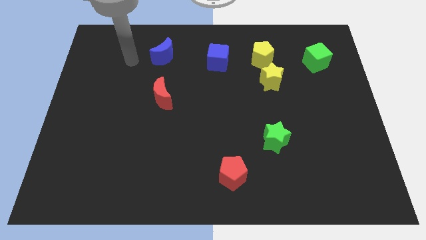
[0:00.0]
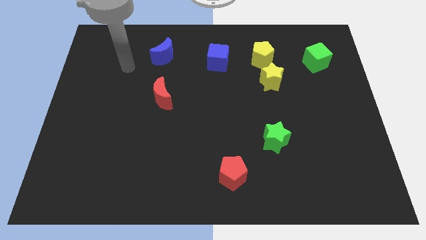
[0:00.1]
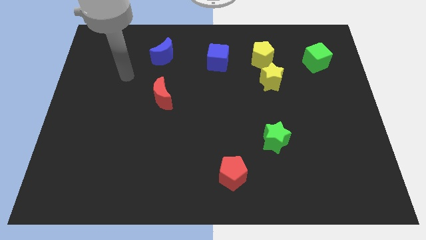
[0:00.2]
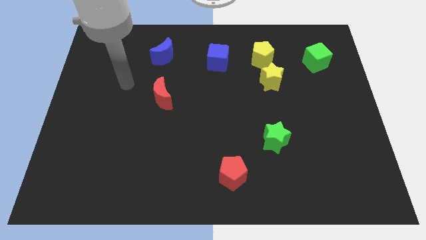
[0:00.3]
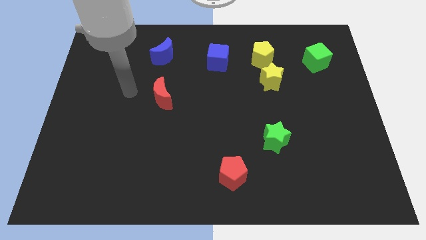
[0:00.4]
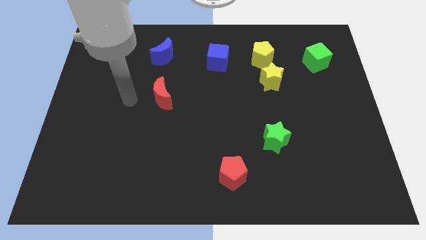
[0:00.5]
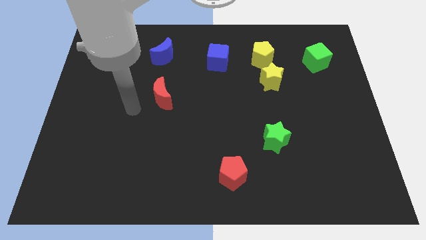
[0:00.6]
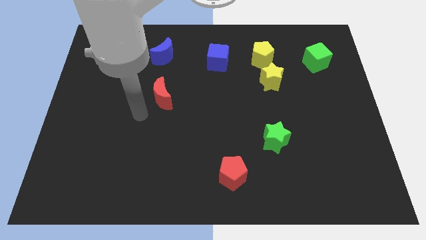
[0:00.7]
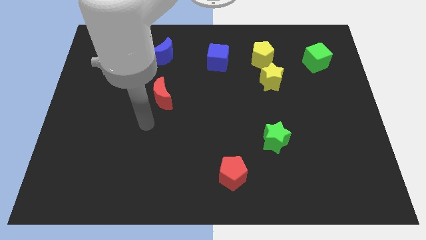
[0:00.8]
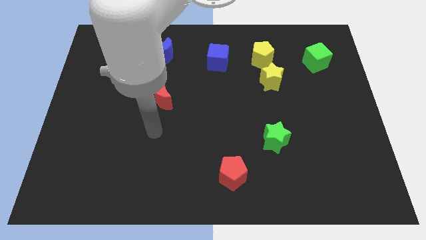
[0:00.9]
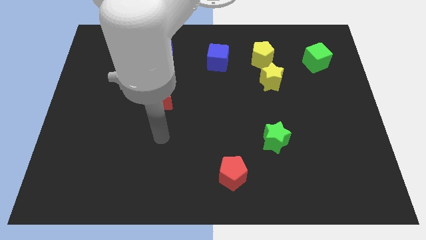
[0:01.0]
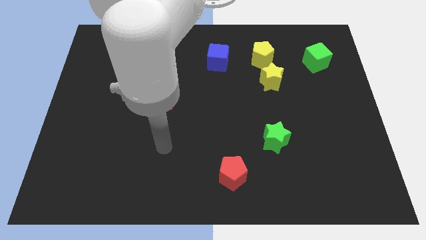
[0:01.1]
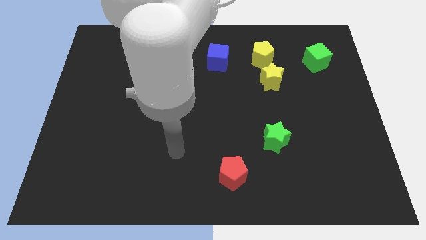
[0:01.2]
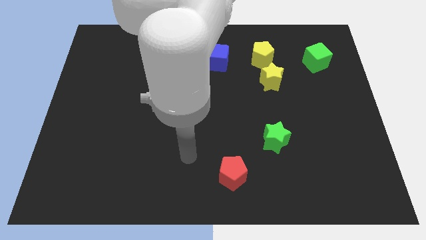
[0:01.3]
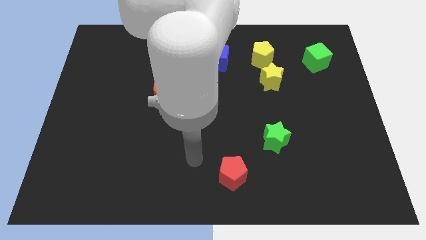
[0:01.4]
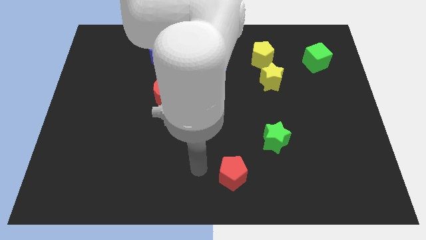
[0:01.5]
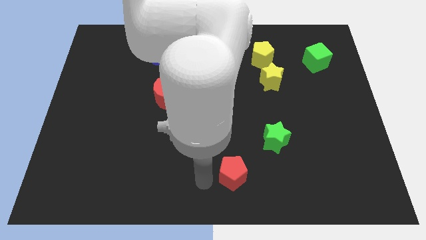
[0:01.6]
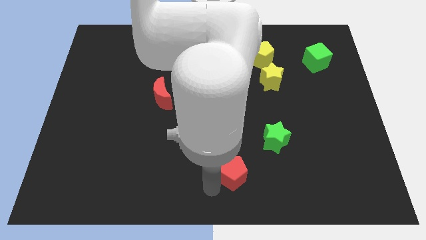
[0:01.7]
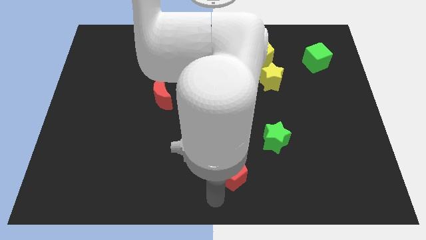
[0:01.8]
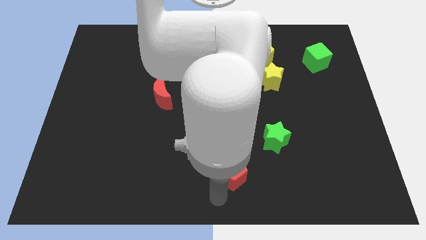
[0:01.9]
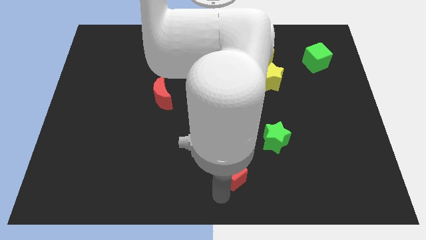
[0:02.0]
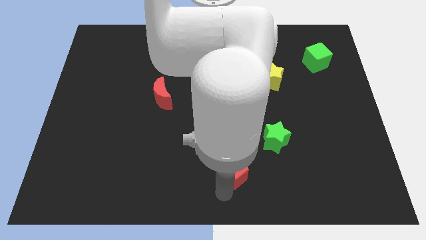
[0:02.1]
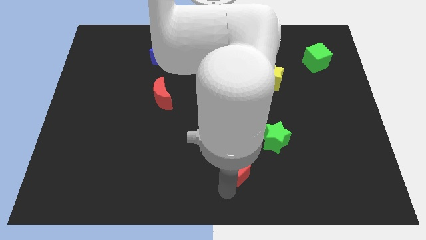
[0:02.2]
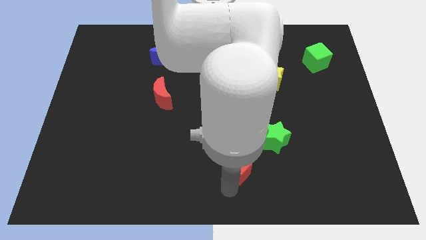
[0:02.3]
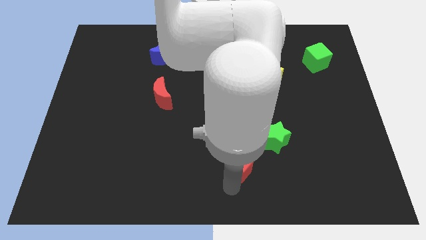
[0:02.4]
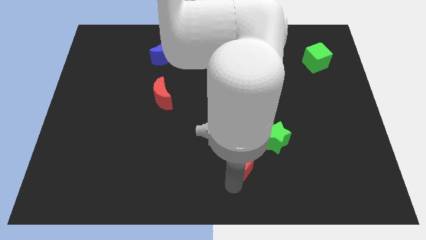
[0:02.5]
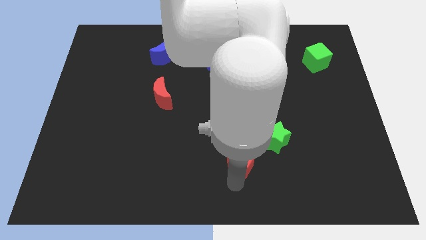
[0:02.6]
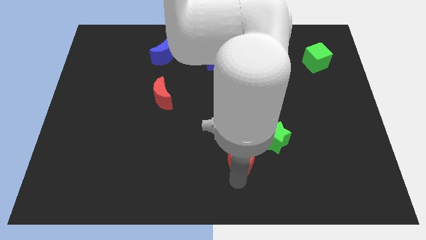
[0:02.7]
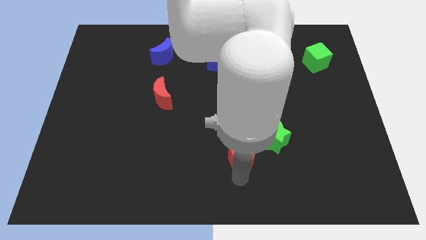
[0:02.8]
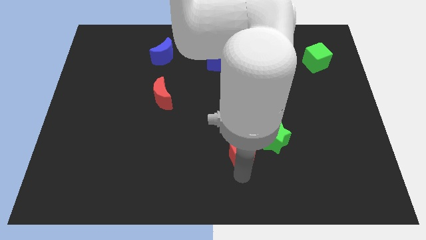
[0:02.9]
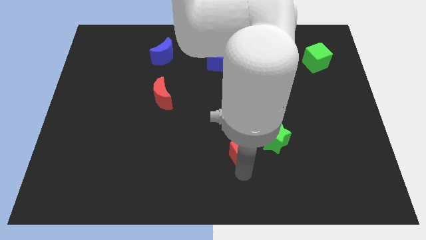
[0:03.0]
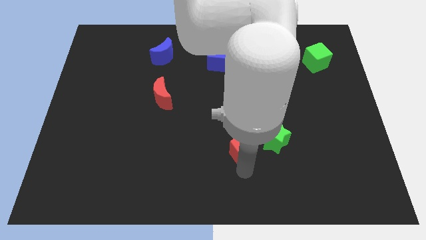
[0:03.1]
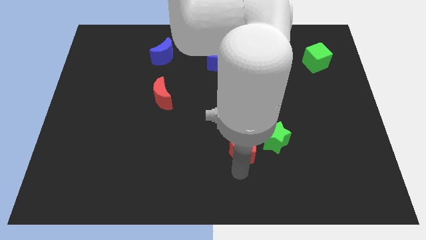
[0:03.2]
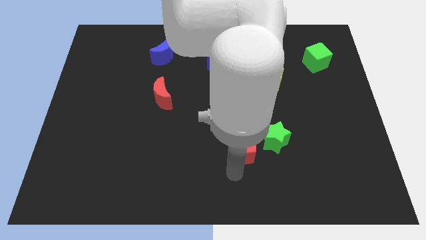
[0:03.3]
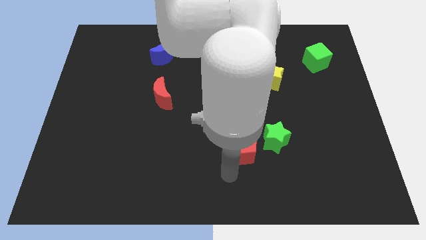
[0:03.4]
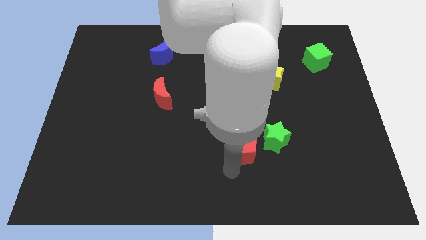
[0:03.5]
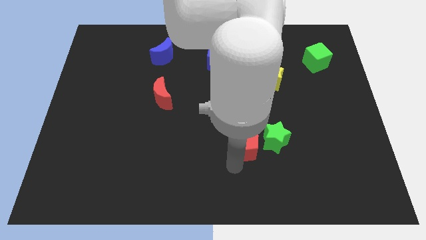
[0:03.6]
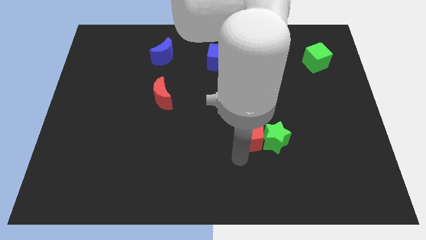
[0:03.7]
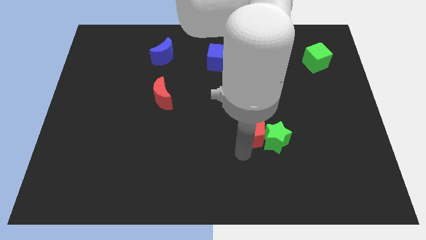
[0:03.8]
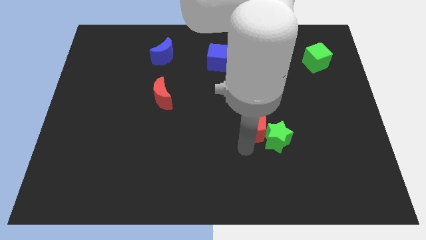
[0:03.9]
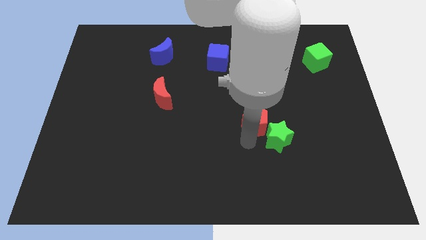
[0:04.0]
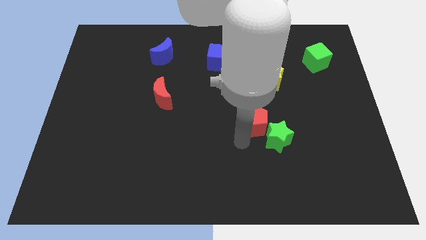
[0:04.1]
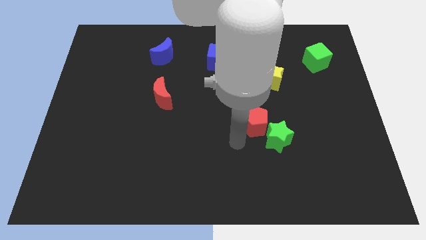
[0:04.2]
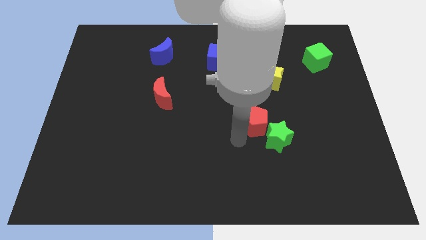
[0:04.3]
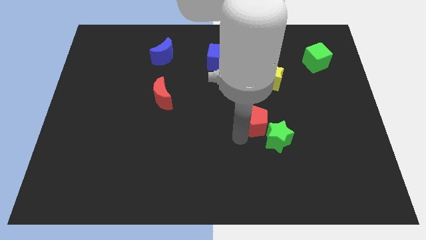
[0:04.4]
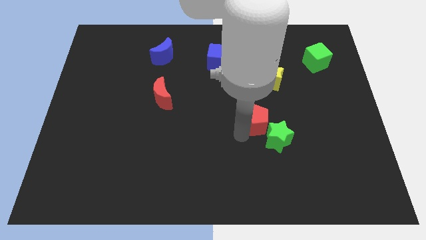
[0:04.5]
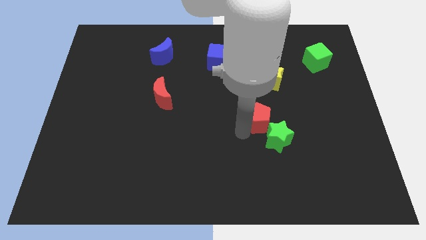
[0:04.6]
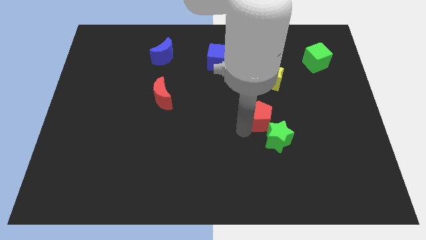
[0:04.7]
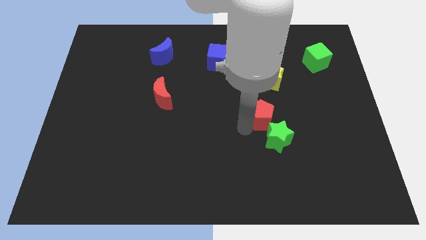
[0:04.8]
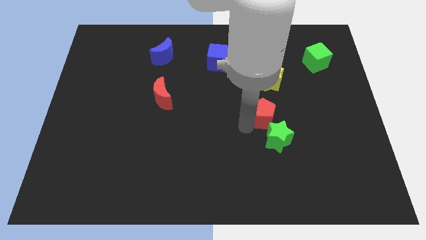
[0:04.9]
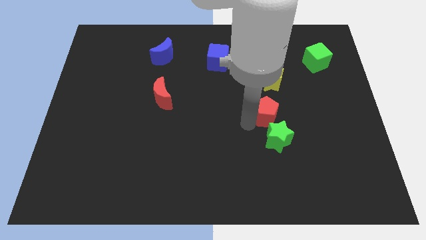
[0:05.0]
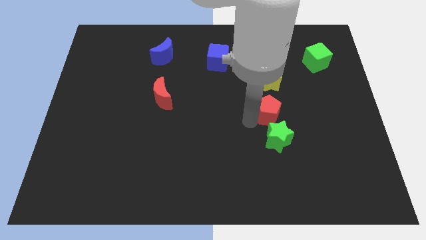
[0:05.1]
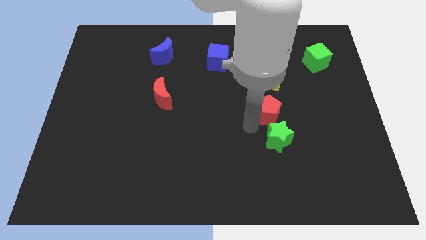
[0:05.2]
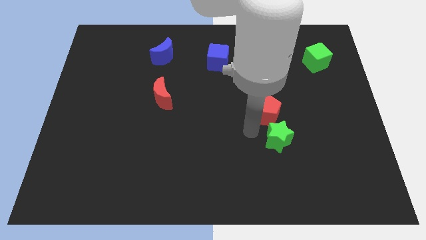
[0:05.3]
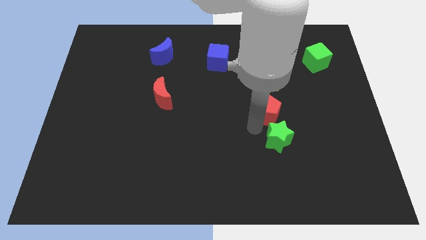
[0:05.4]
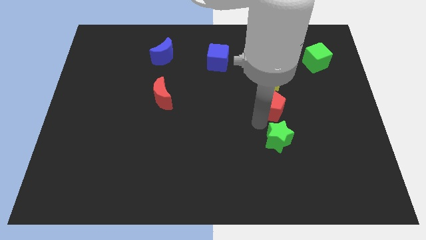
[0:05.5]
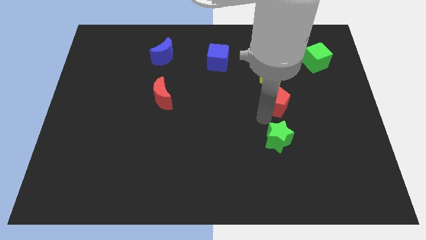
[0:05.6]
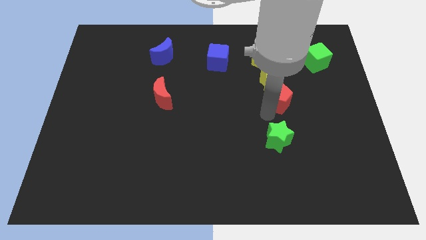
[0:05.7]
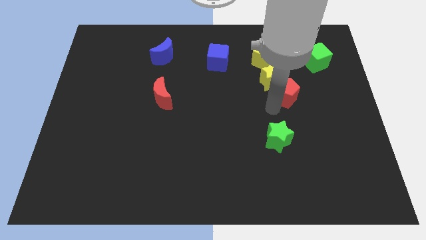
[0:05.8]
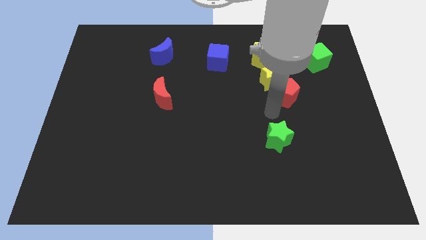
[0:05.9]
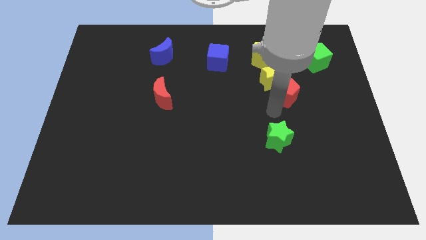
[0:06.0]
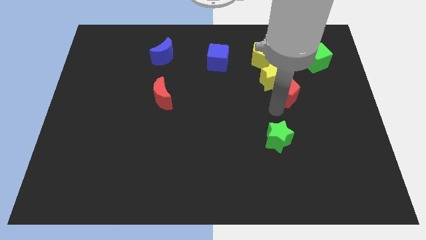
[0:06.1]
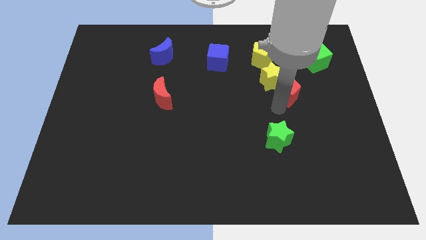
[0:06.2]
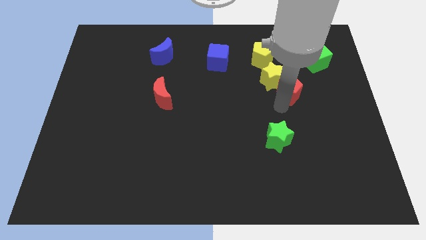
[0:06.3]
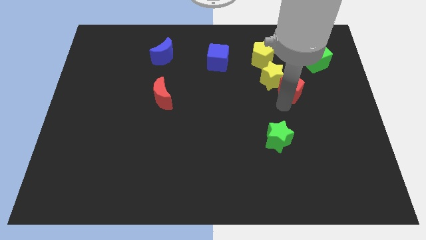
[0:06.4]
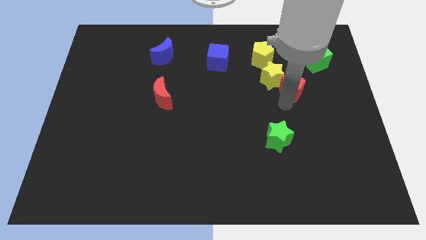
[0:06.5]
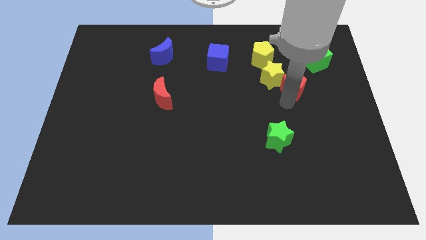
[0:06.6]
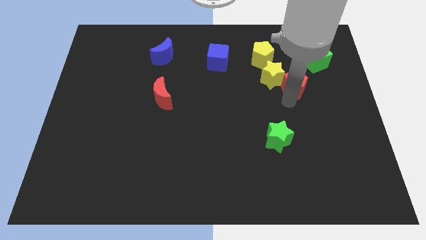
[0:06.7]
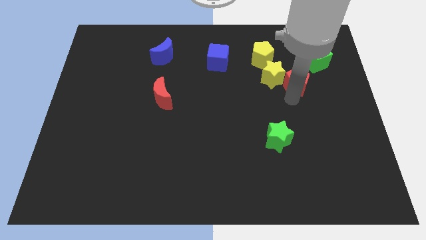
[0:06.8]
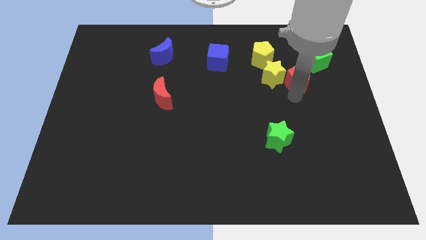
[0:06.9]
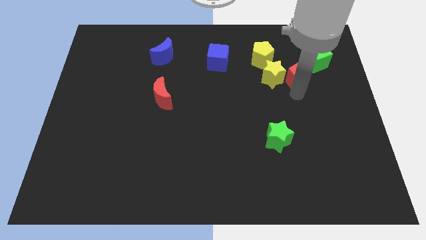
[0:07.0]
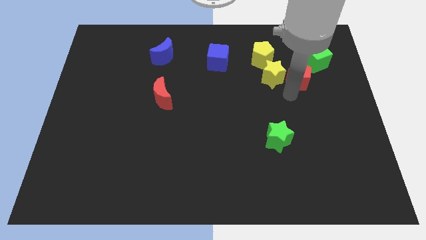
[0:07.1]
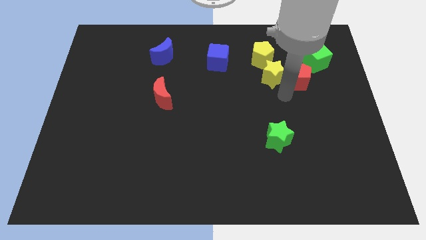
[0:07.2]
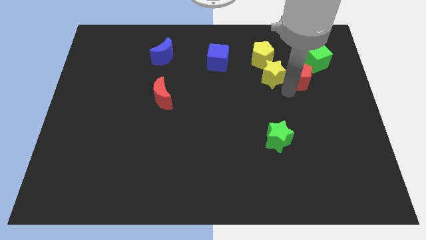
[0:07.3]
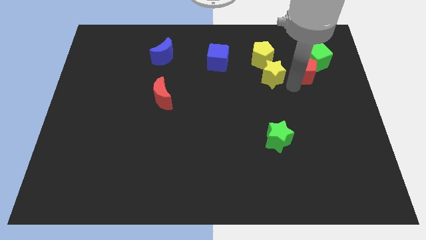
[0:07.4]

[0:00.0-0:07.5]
move the red pentagon close to the green cube

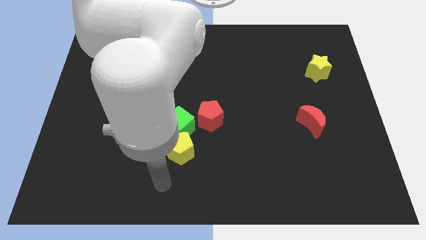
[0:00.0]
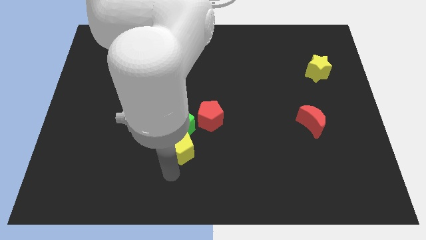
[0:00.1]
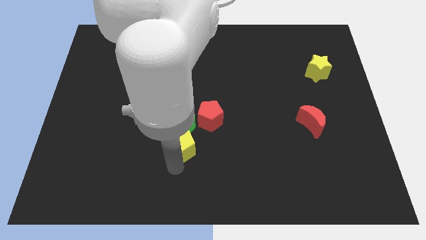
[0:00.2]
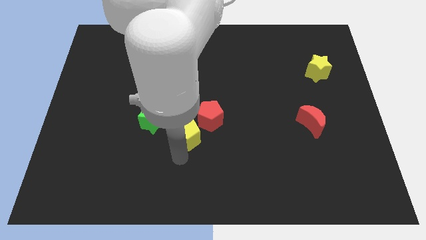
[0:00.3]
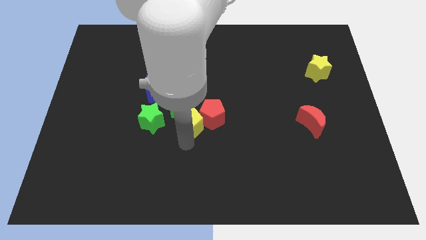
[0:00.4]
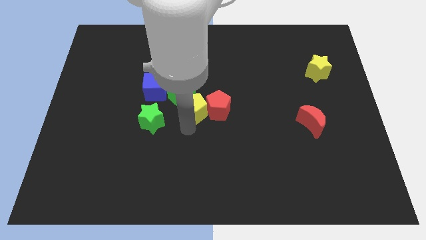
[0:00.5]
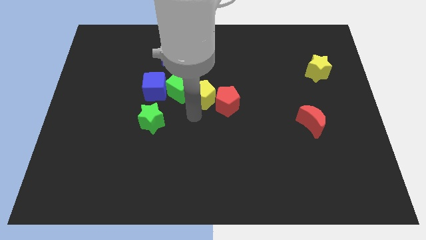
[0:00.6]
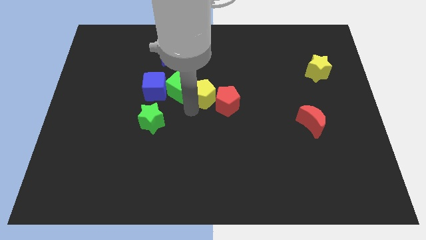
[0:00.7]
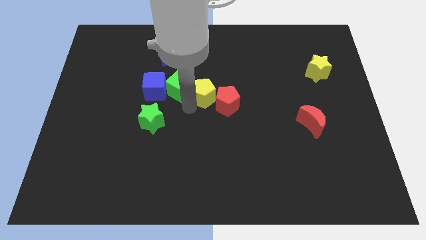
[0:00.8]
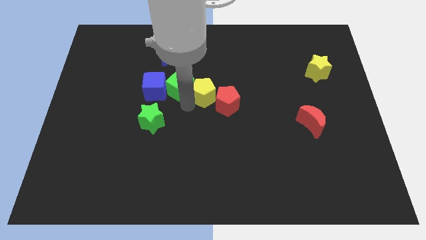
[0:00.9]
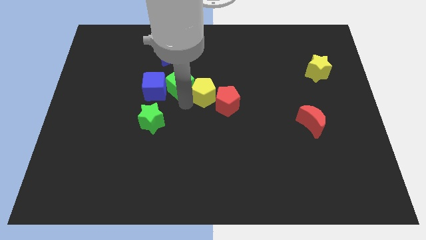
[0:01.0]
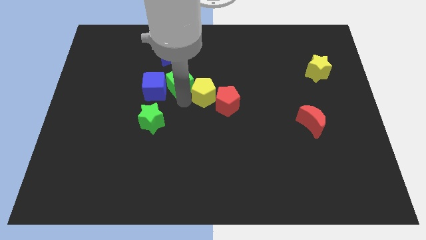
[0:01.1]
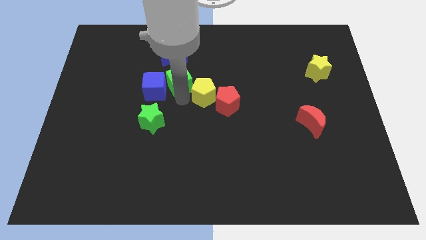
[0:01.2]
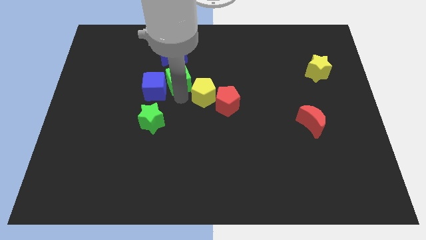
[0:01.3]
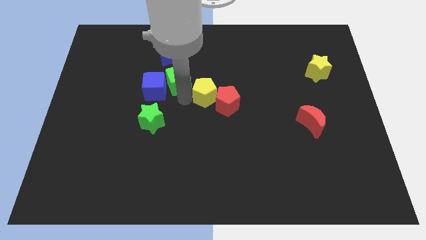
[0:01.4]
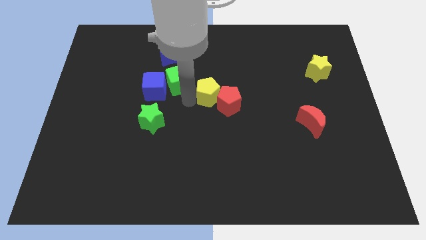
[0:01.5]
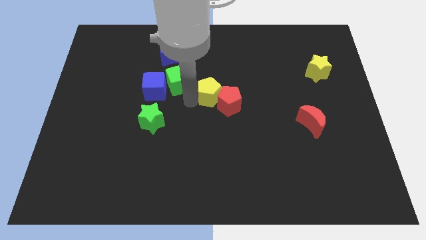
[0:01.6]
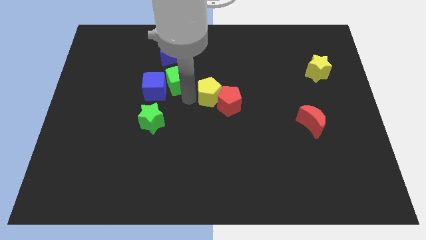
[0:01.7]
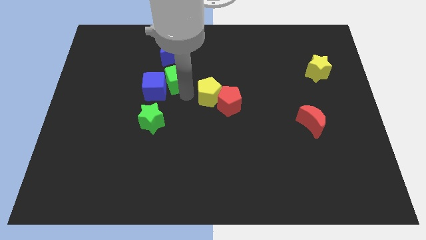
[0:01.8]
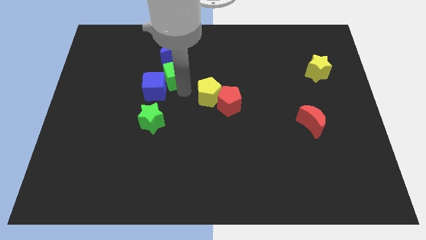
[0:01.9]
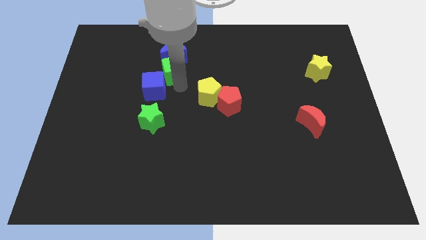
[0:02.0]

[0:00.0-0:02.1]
slide the green cube towards the blue moon
